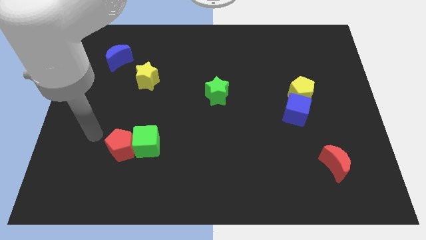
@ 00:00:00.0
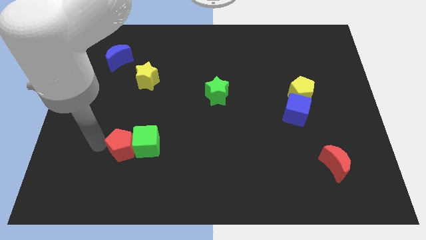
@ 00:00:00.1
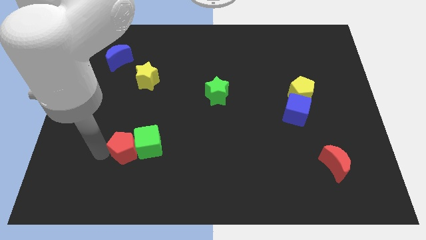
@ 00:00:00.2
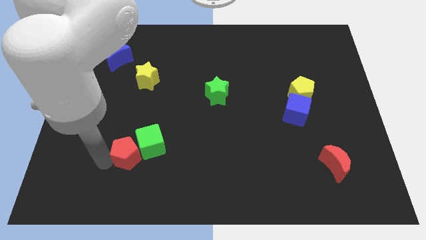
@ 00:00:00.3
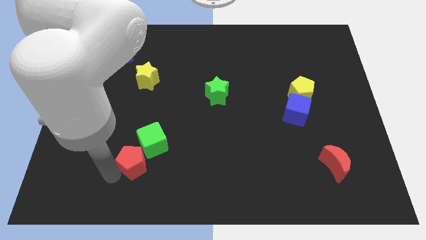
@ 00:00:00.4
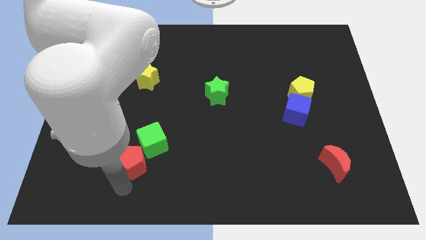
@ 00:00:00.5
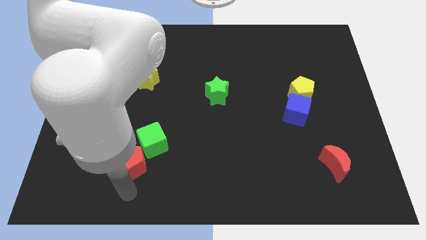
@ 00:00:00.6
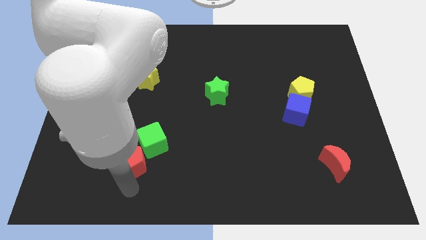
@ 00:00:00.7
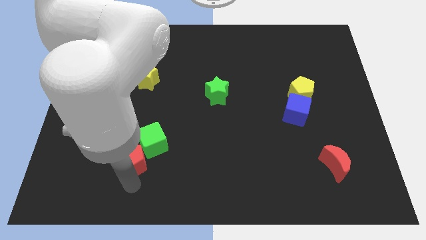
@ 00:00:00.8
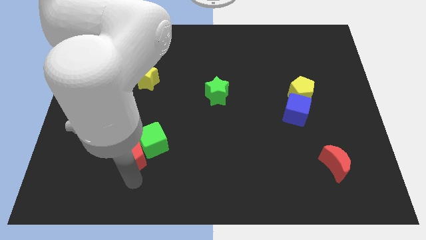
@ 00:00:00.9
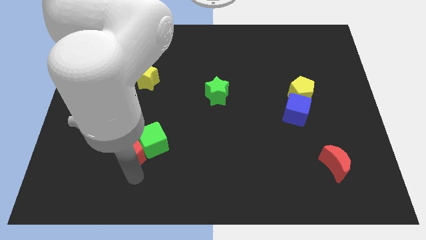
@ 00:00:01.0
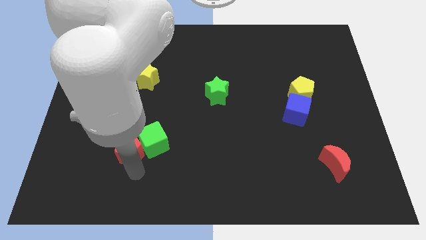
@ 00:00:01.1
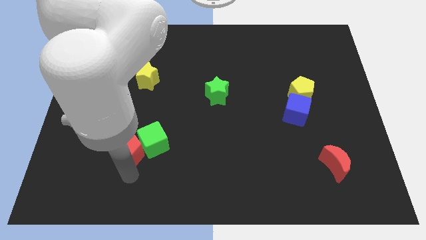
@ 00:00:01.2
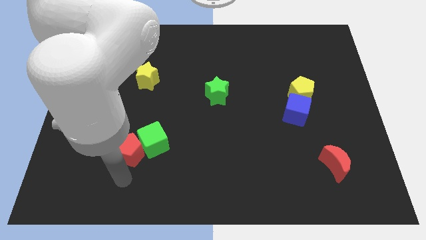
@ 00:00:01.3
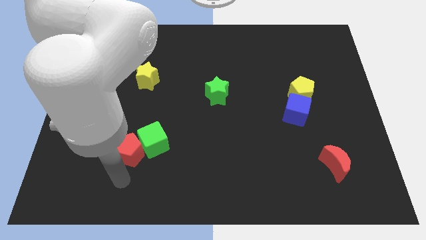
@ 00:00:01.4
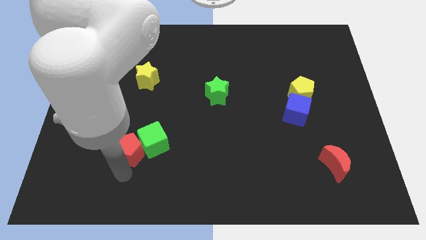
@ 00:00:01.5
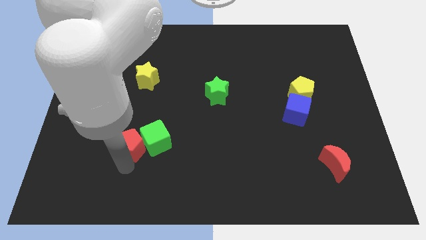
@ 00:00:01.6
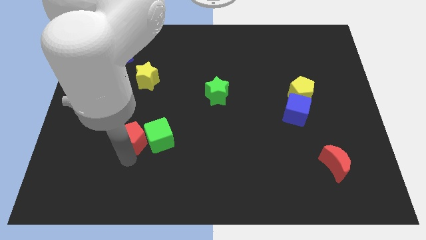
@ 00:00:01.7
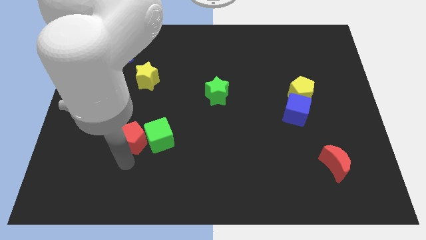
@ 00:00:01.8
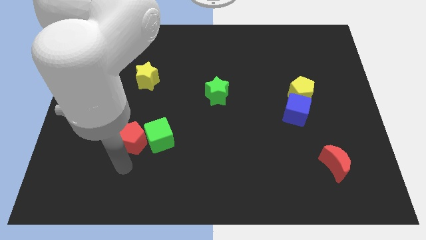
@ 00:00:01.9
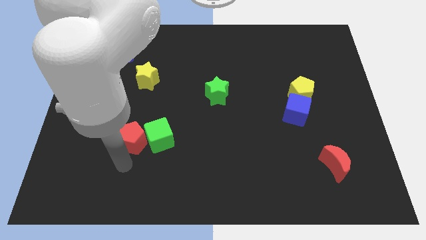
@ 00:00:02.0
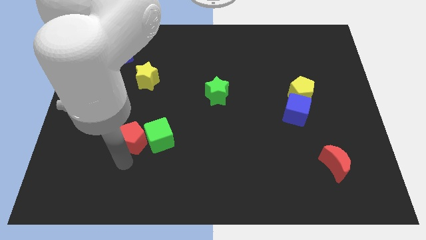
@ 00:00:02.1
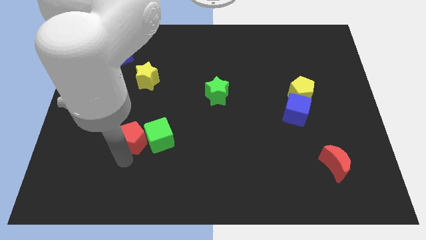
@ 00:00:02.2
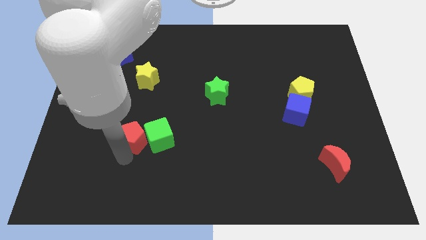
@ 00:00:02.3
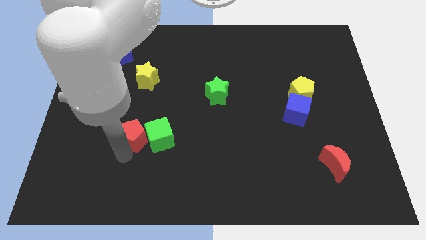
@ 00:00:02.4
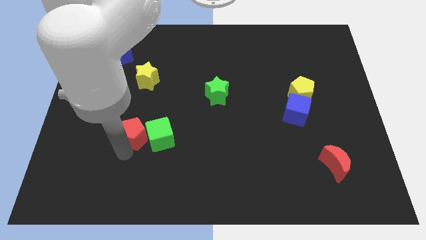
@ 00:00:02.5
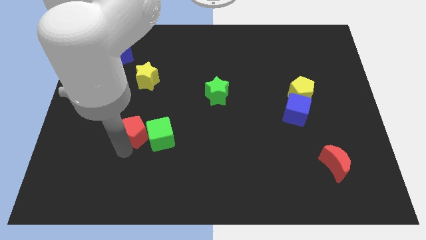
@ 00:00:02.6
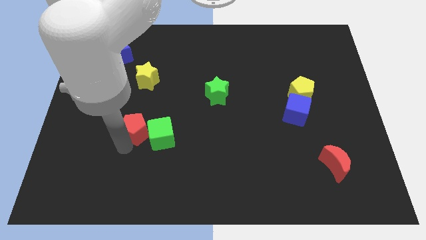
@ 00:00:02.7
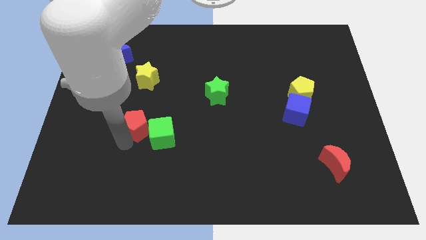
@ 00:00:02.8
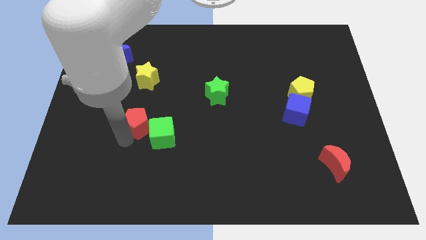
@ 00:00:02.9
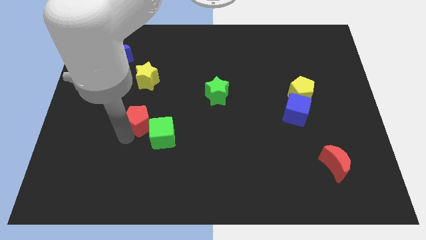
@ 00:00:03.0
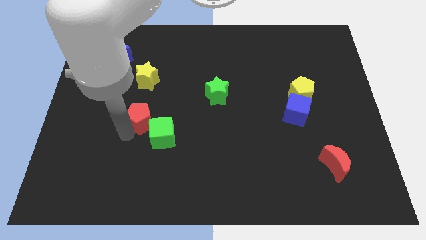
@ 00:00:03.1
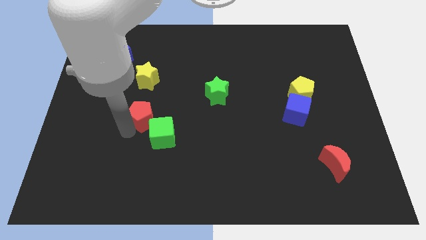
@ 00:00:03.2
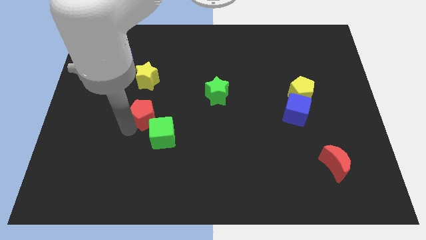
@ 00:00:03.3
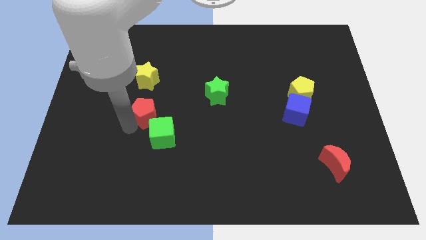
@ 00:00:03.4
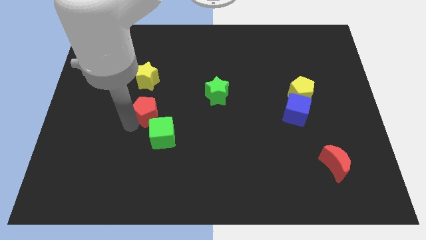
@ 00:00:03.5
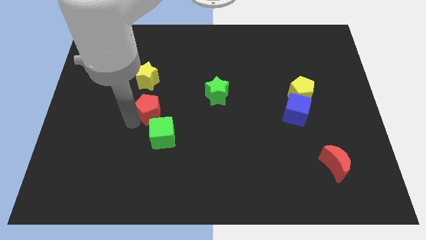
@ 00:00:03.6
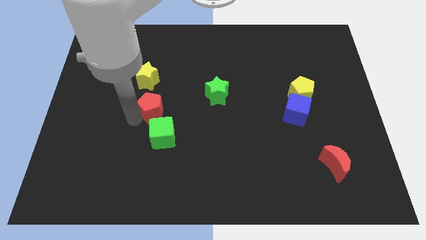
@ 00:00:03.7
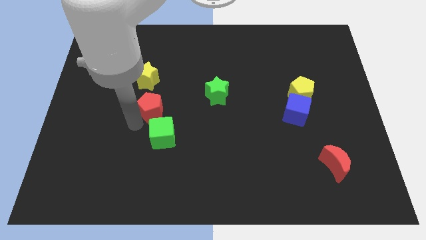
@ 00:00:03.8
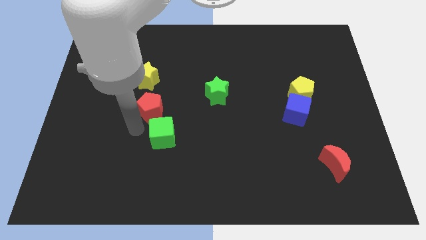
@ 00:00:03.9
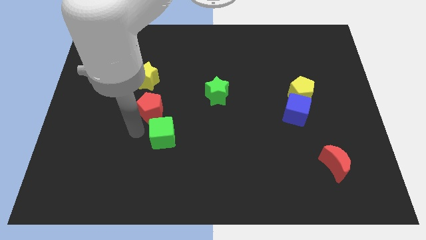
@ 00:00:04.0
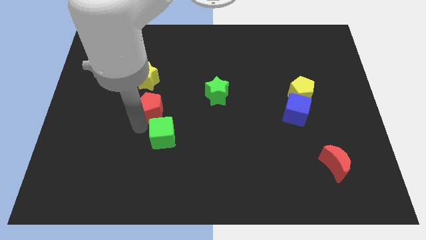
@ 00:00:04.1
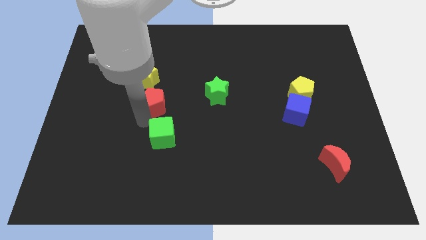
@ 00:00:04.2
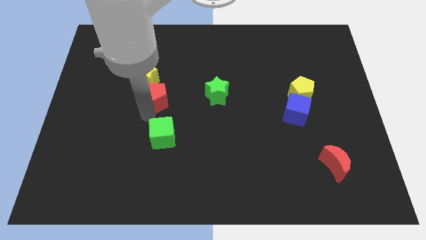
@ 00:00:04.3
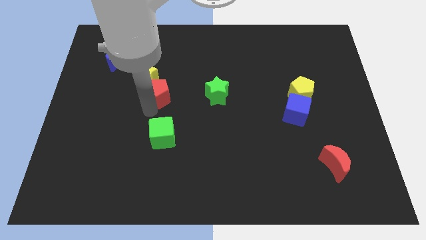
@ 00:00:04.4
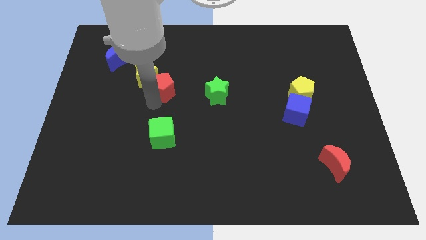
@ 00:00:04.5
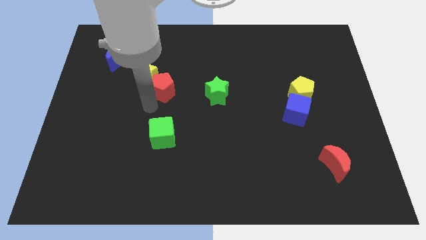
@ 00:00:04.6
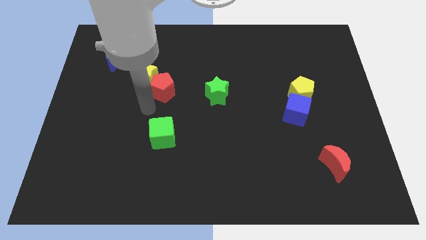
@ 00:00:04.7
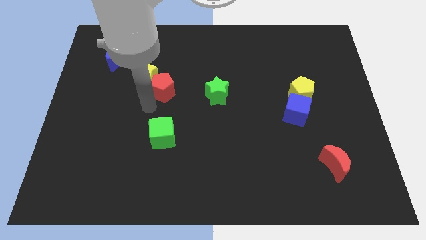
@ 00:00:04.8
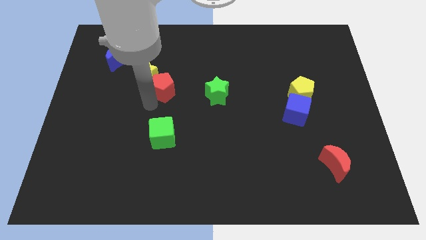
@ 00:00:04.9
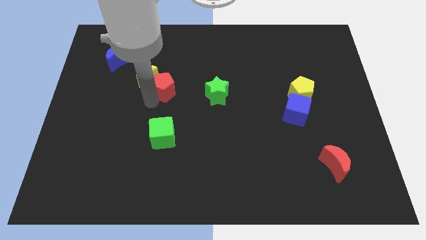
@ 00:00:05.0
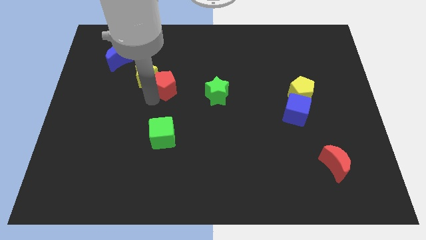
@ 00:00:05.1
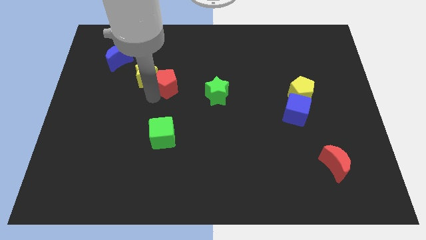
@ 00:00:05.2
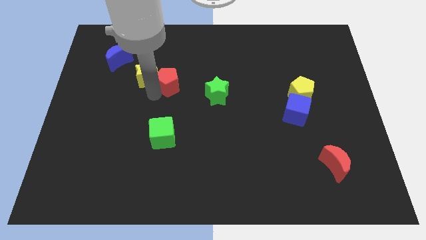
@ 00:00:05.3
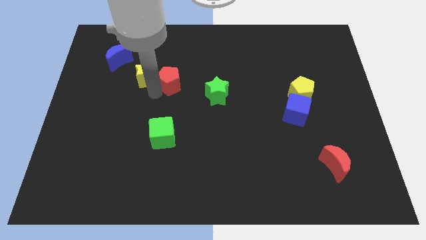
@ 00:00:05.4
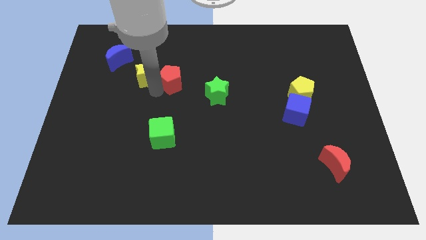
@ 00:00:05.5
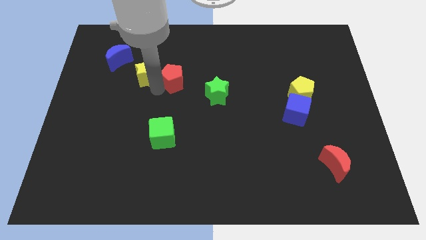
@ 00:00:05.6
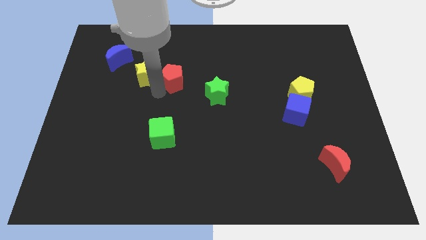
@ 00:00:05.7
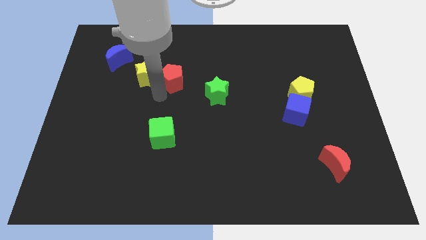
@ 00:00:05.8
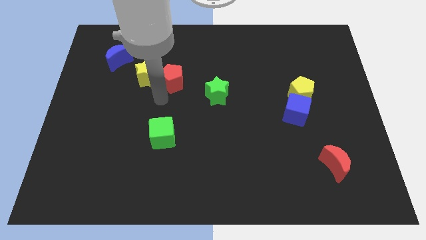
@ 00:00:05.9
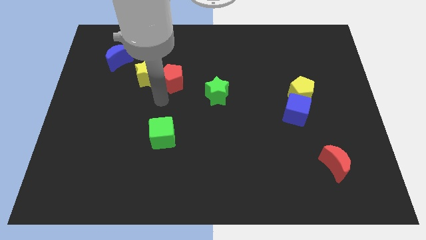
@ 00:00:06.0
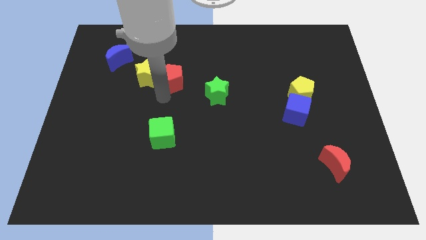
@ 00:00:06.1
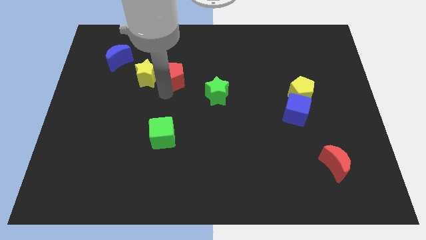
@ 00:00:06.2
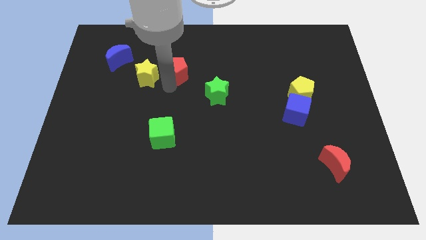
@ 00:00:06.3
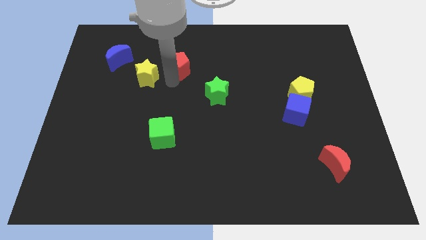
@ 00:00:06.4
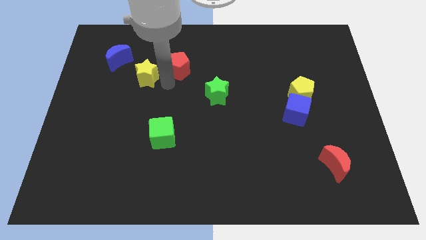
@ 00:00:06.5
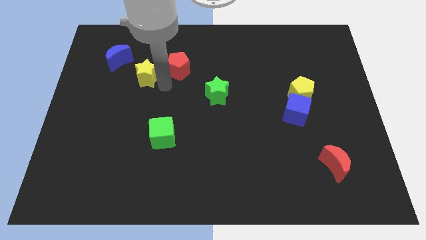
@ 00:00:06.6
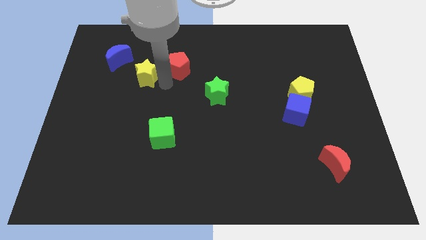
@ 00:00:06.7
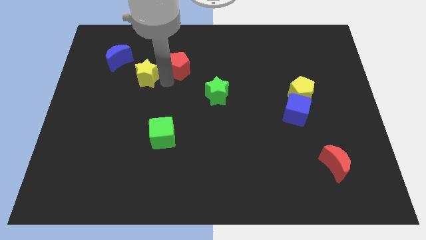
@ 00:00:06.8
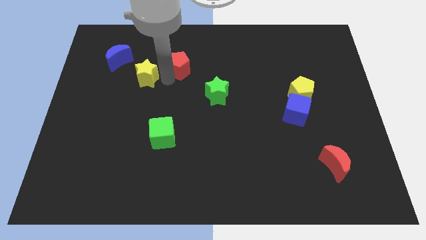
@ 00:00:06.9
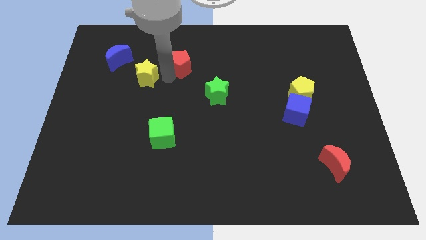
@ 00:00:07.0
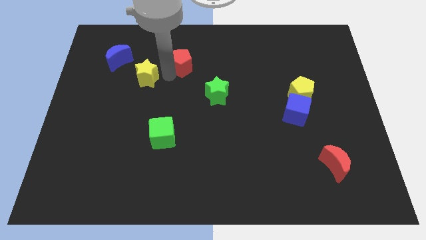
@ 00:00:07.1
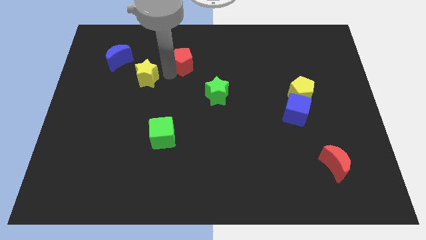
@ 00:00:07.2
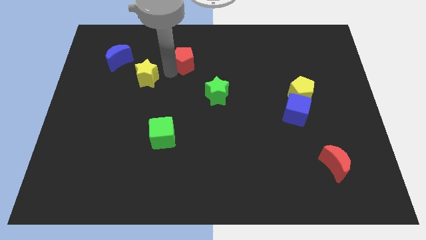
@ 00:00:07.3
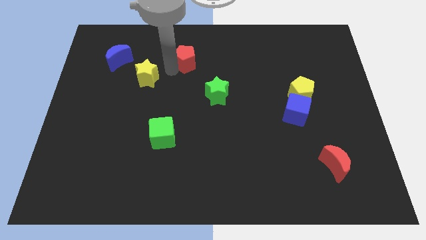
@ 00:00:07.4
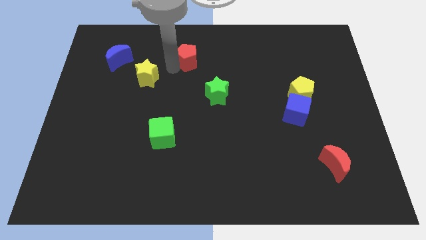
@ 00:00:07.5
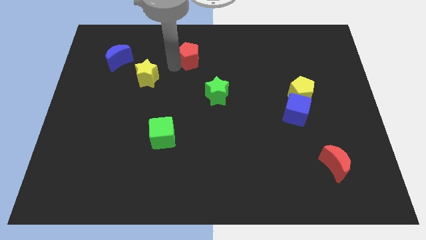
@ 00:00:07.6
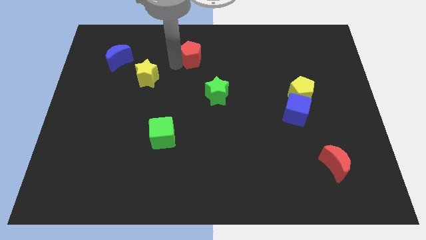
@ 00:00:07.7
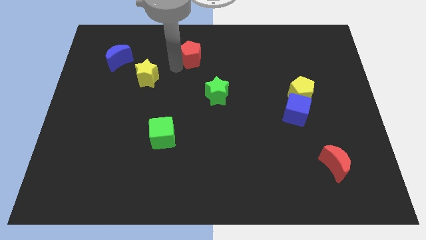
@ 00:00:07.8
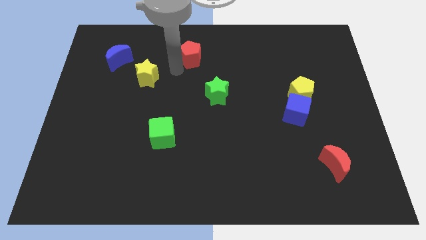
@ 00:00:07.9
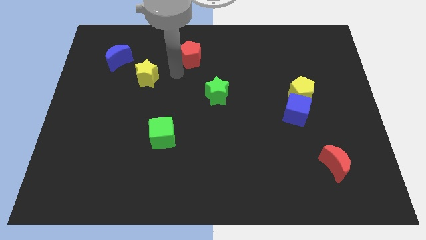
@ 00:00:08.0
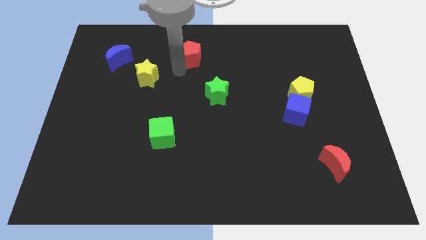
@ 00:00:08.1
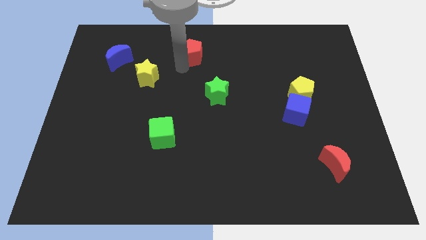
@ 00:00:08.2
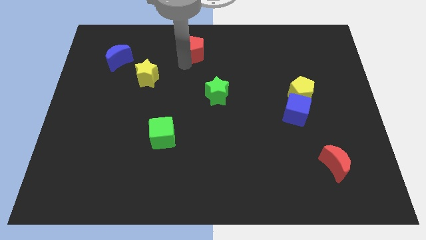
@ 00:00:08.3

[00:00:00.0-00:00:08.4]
push the red pentagon to the top side
